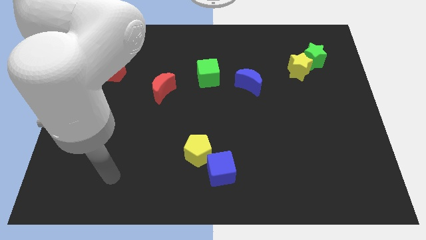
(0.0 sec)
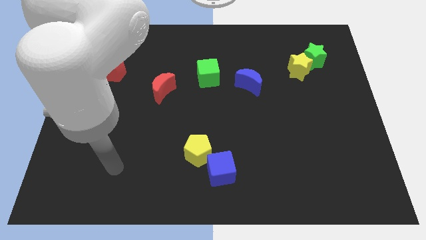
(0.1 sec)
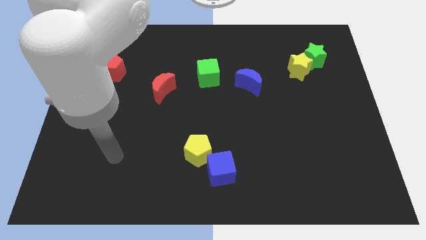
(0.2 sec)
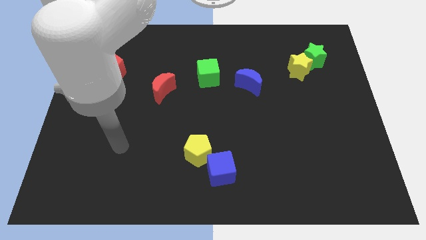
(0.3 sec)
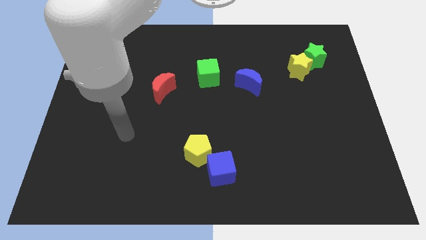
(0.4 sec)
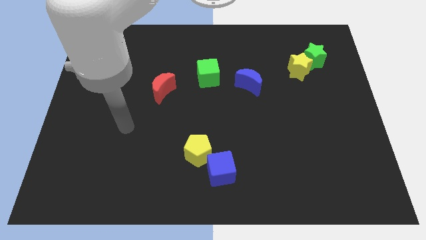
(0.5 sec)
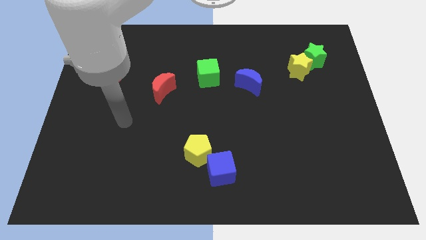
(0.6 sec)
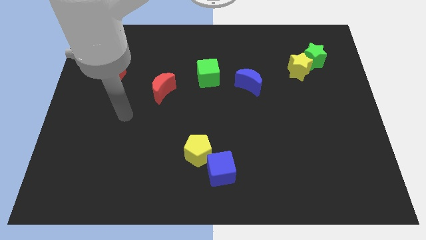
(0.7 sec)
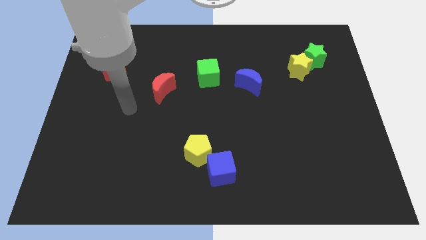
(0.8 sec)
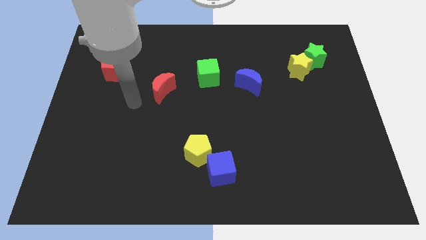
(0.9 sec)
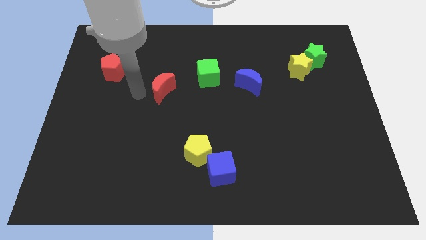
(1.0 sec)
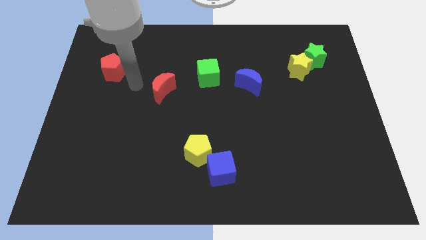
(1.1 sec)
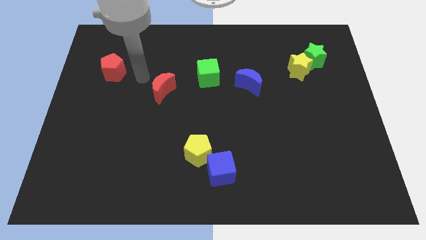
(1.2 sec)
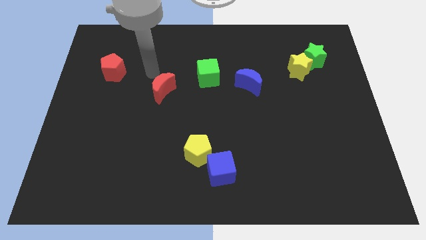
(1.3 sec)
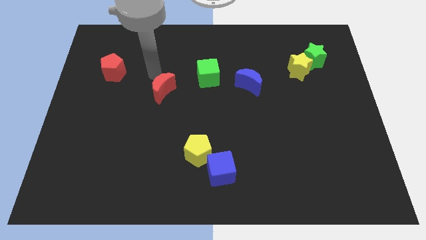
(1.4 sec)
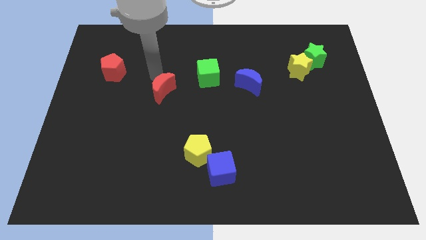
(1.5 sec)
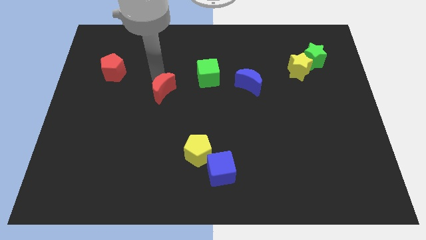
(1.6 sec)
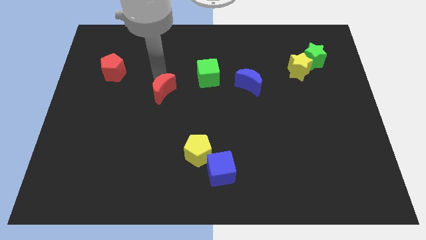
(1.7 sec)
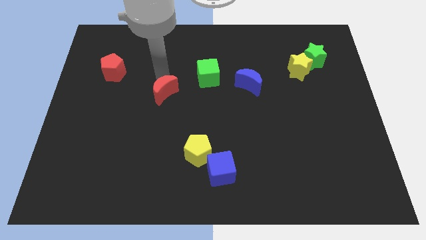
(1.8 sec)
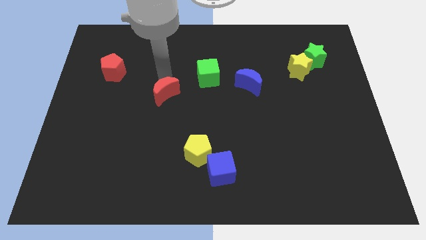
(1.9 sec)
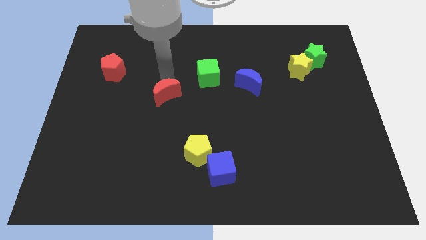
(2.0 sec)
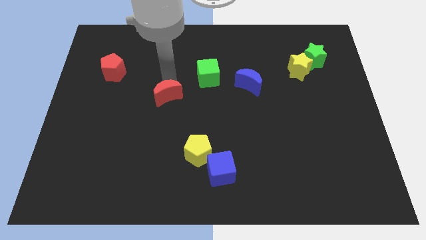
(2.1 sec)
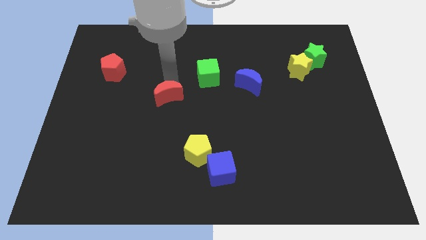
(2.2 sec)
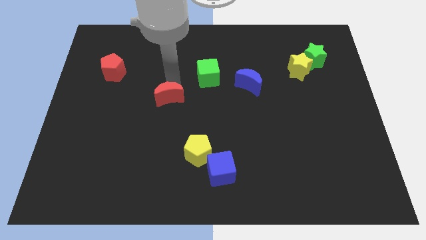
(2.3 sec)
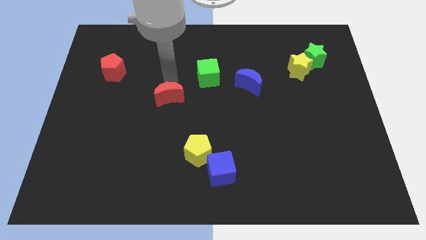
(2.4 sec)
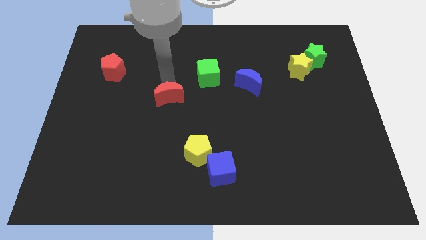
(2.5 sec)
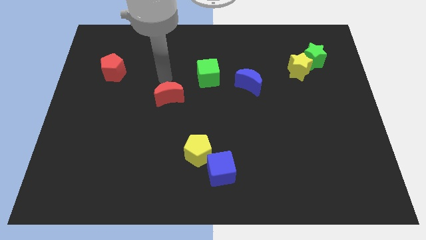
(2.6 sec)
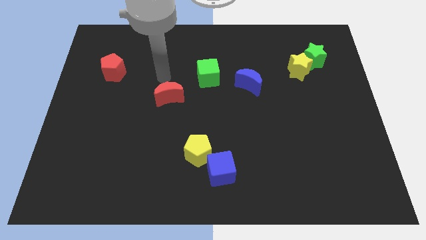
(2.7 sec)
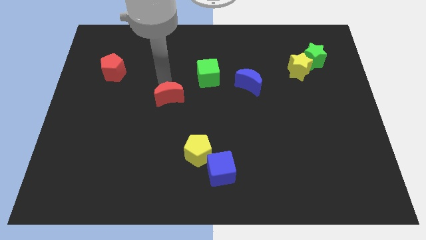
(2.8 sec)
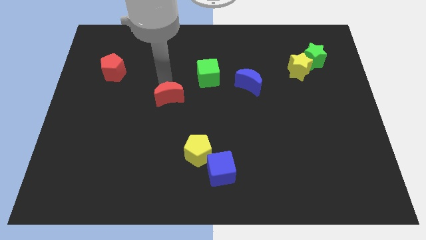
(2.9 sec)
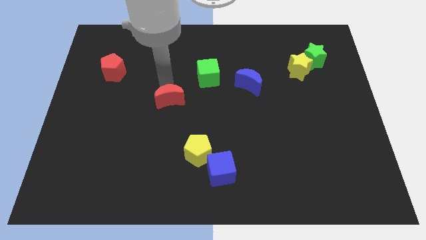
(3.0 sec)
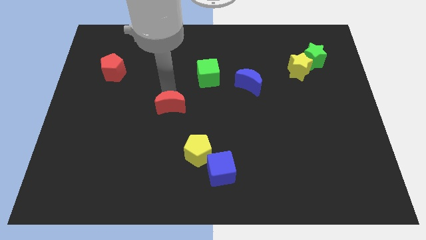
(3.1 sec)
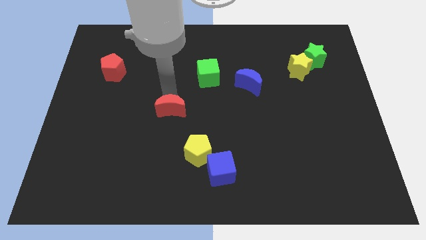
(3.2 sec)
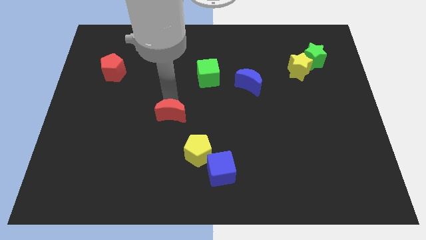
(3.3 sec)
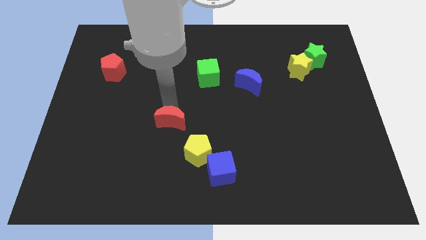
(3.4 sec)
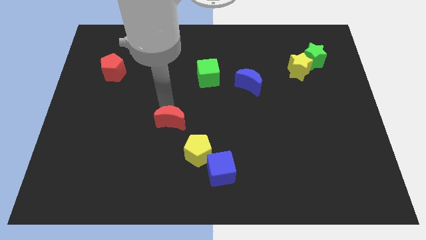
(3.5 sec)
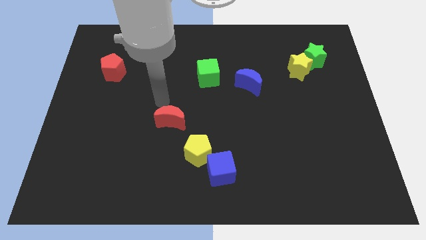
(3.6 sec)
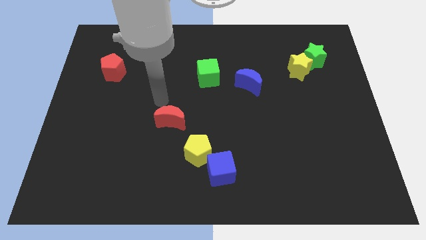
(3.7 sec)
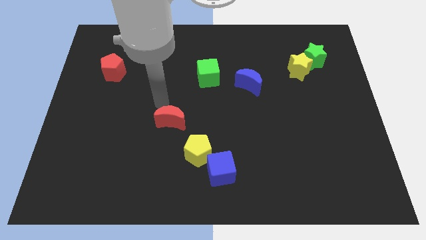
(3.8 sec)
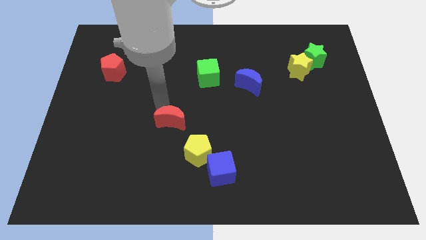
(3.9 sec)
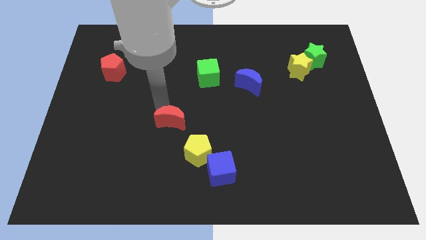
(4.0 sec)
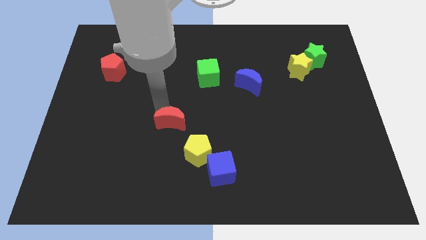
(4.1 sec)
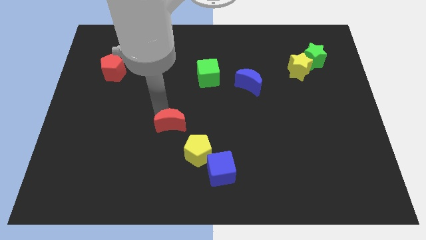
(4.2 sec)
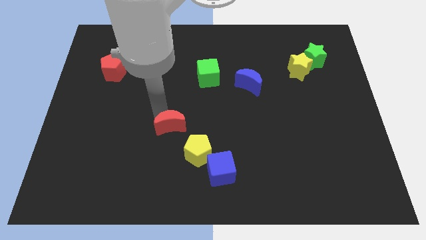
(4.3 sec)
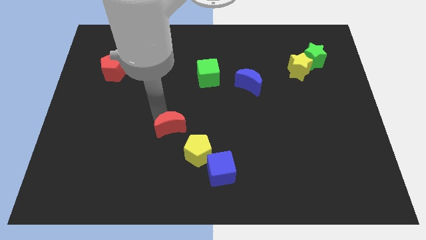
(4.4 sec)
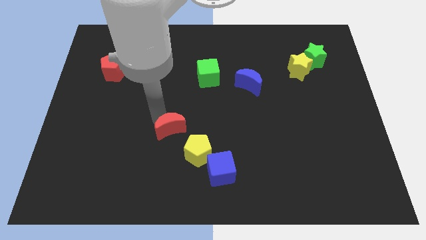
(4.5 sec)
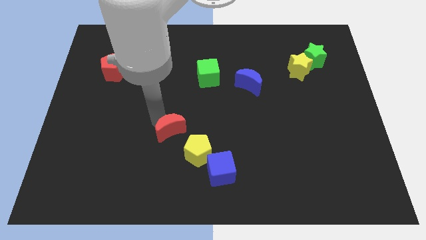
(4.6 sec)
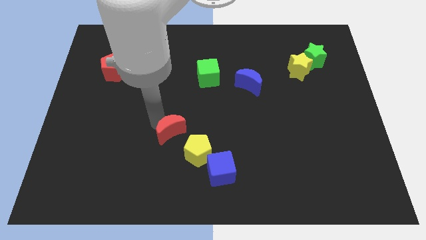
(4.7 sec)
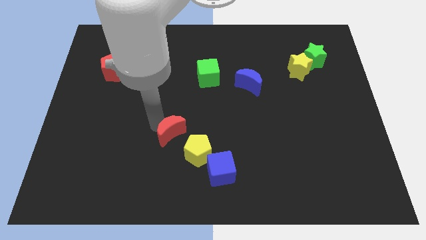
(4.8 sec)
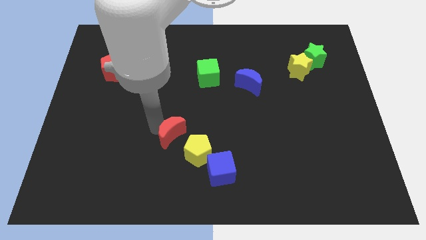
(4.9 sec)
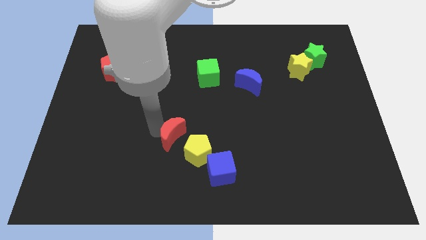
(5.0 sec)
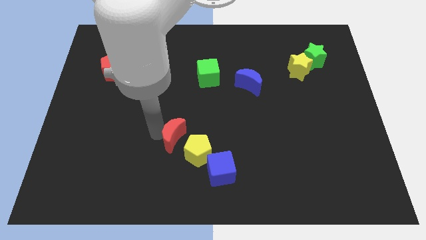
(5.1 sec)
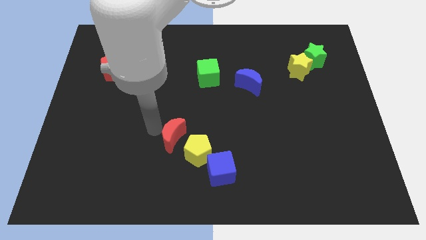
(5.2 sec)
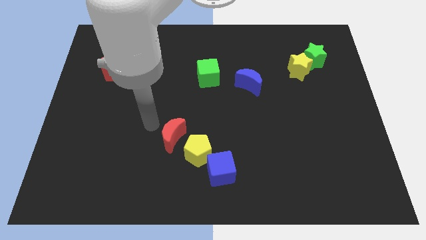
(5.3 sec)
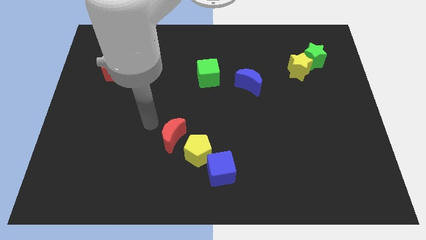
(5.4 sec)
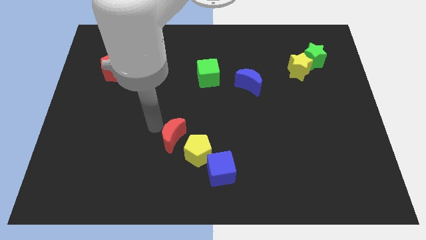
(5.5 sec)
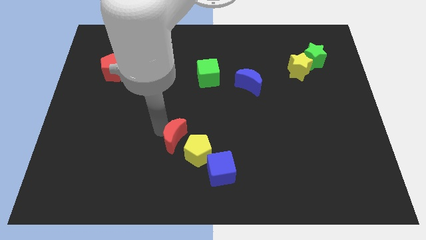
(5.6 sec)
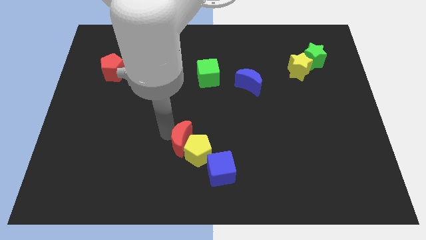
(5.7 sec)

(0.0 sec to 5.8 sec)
move the red moon close to the yellow pentagon

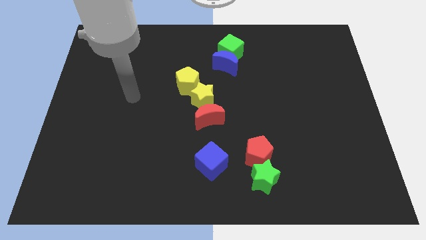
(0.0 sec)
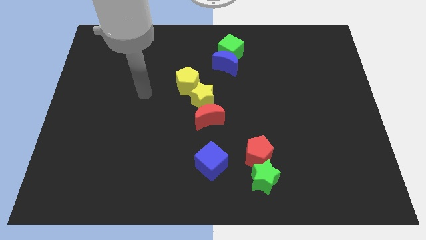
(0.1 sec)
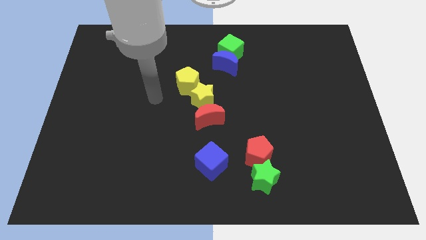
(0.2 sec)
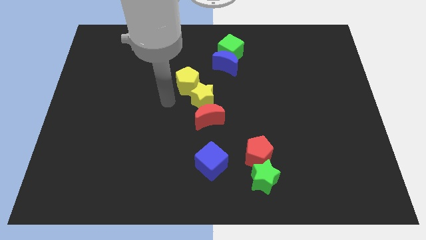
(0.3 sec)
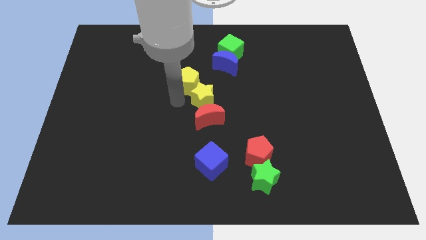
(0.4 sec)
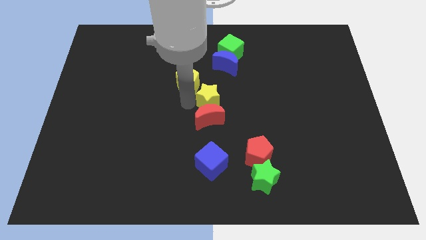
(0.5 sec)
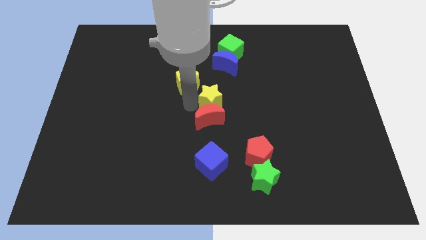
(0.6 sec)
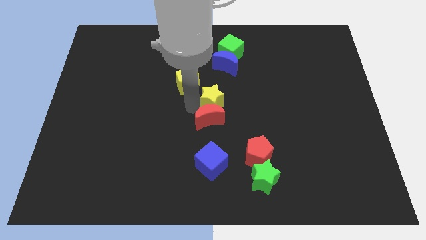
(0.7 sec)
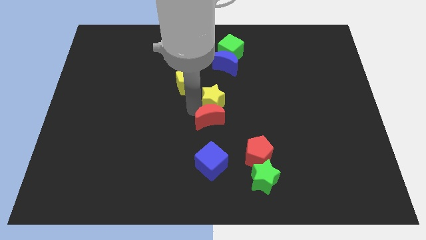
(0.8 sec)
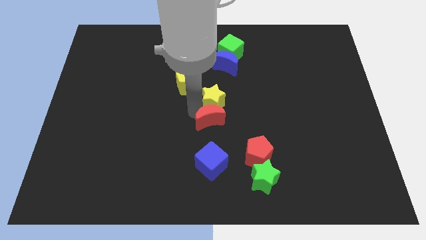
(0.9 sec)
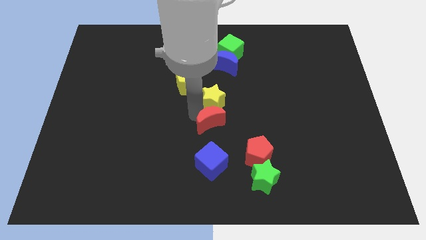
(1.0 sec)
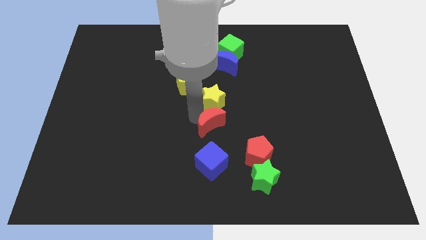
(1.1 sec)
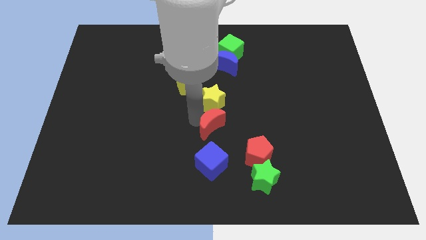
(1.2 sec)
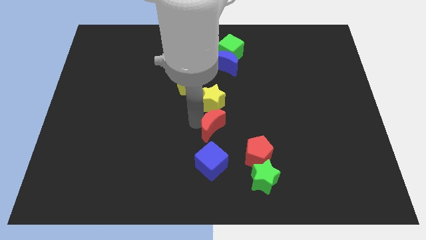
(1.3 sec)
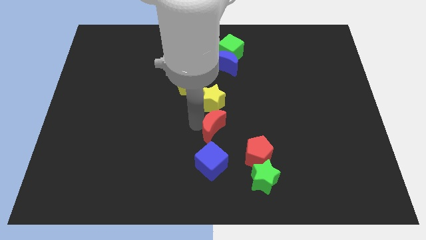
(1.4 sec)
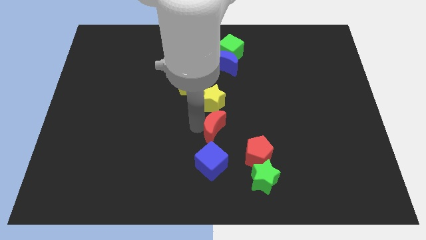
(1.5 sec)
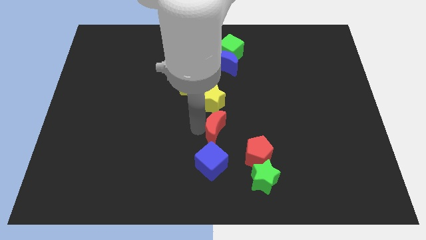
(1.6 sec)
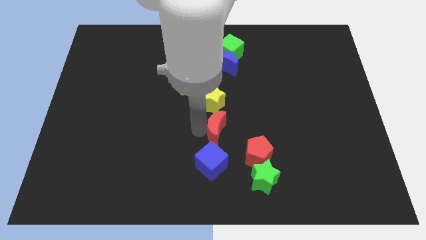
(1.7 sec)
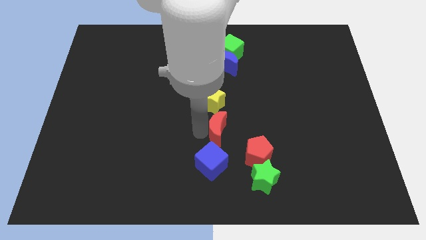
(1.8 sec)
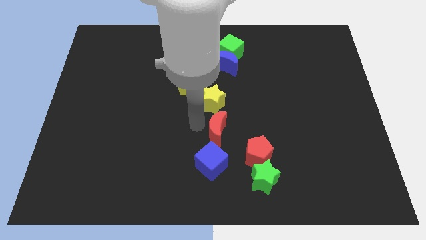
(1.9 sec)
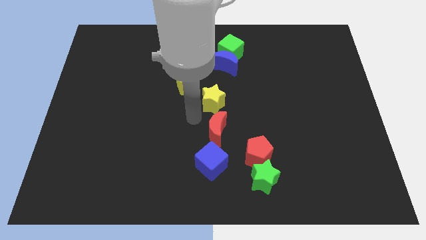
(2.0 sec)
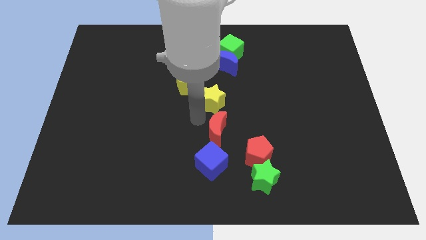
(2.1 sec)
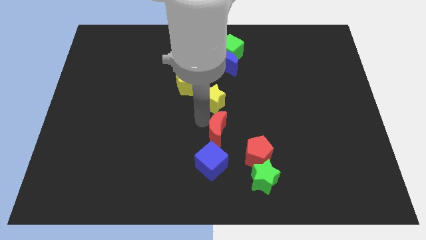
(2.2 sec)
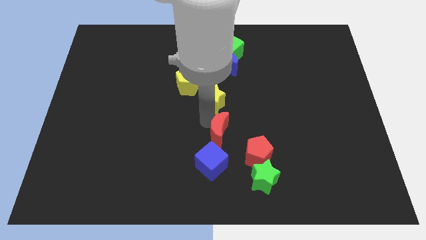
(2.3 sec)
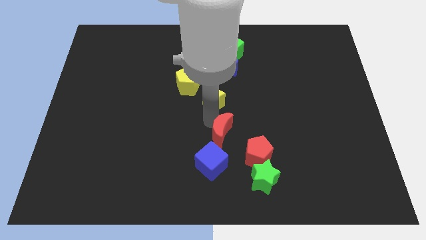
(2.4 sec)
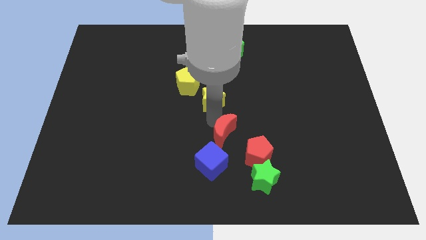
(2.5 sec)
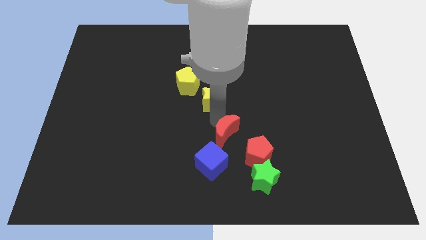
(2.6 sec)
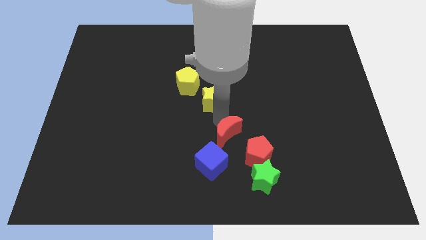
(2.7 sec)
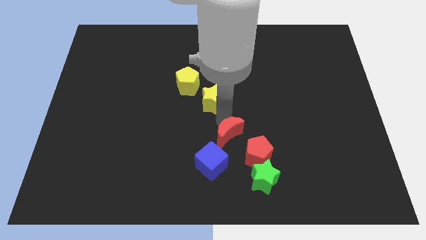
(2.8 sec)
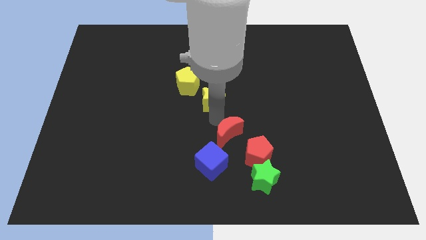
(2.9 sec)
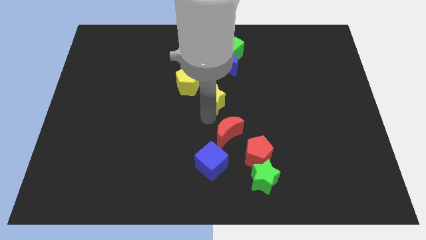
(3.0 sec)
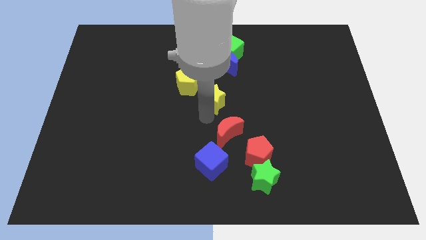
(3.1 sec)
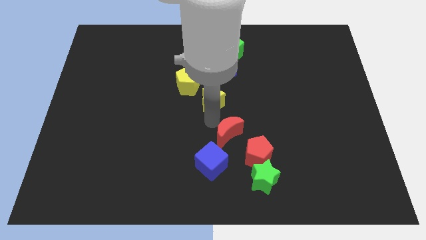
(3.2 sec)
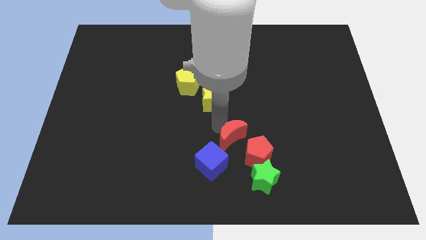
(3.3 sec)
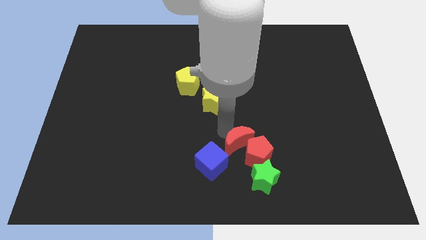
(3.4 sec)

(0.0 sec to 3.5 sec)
slide the red moon close to the red pentagon
